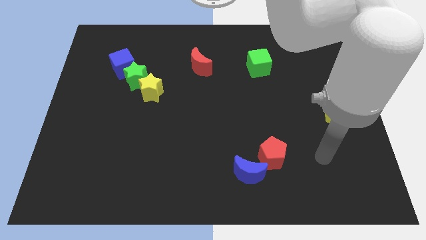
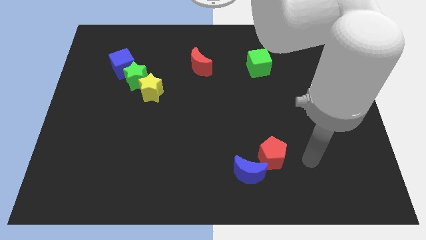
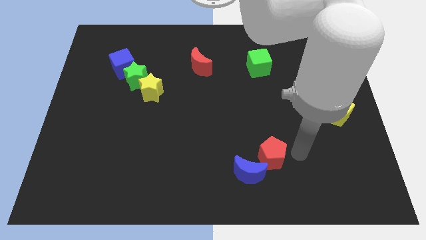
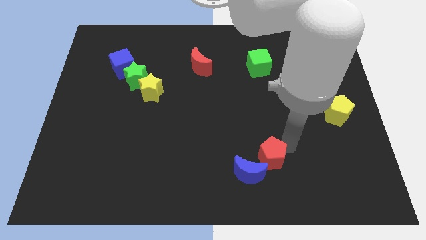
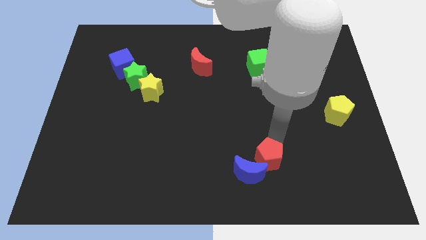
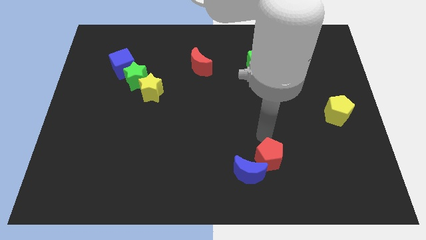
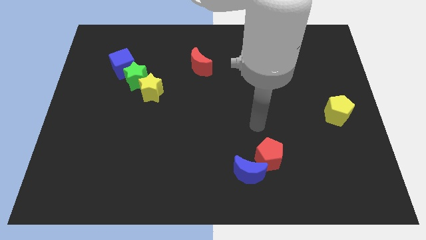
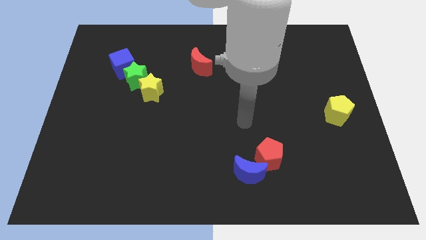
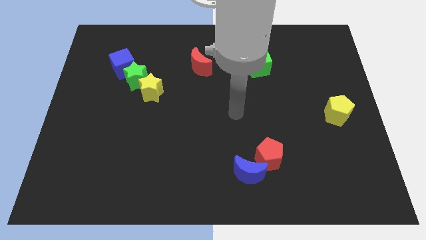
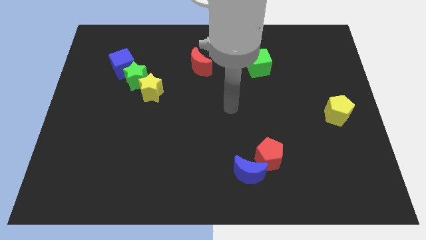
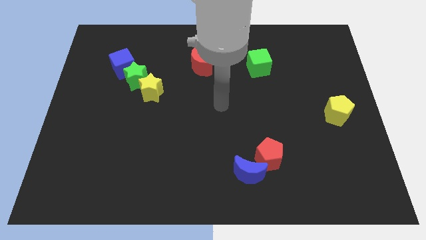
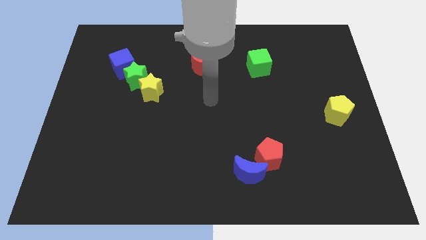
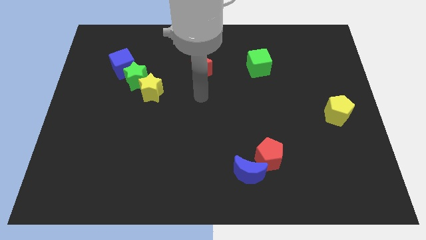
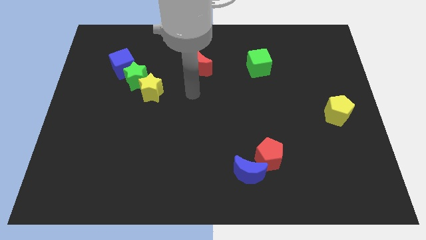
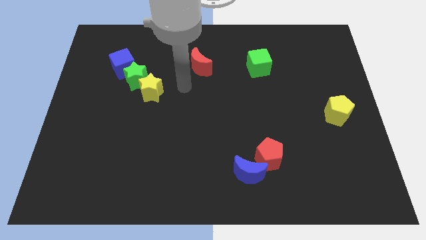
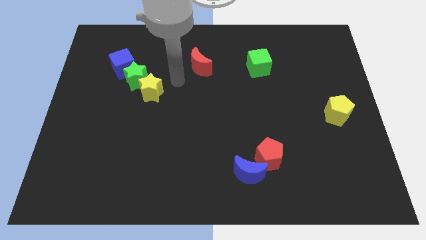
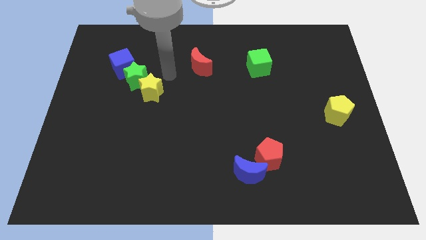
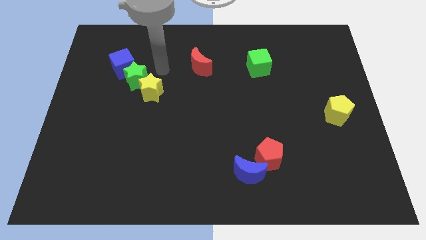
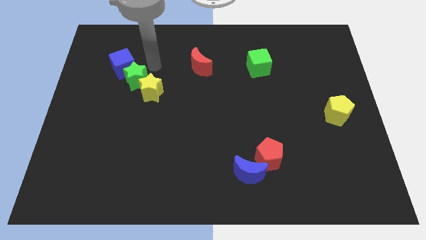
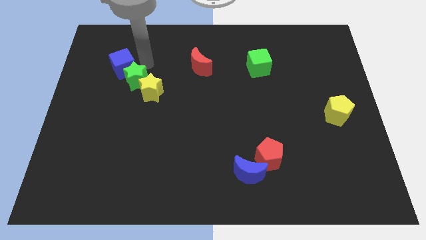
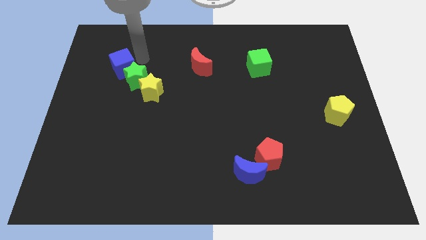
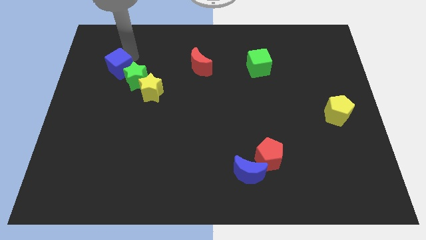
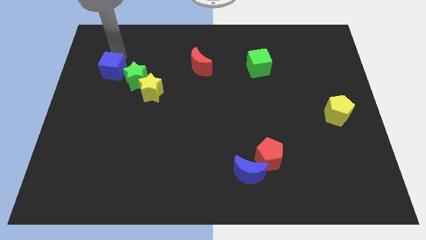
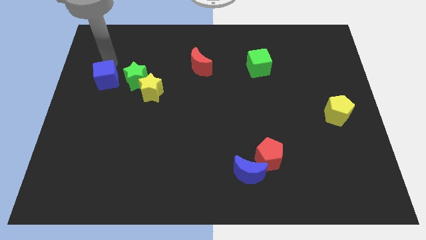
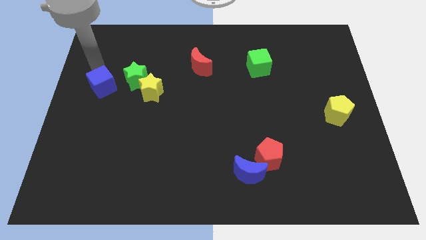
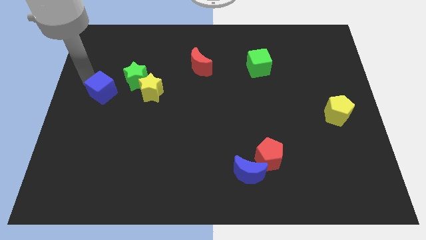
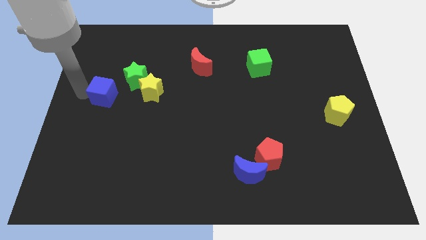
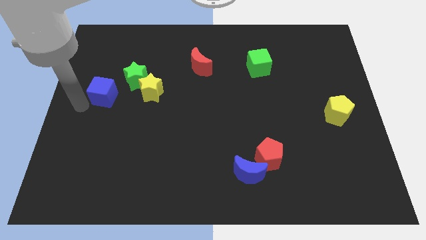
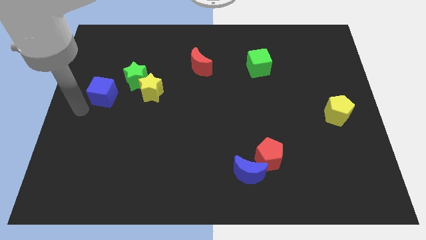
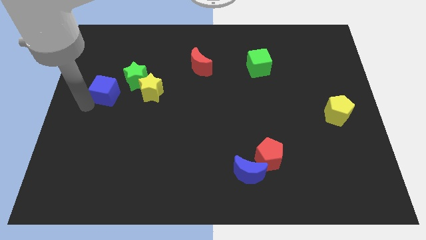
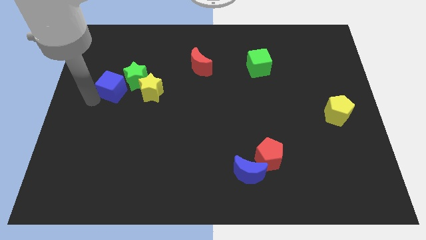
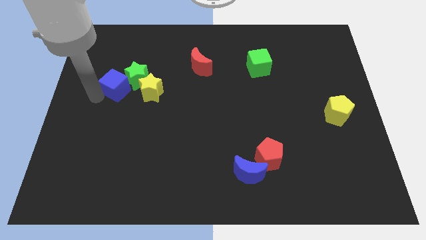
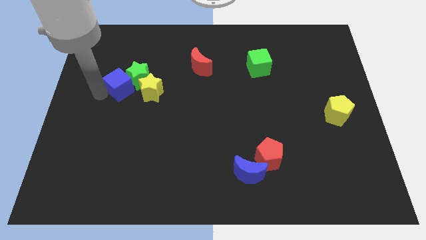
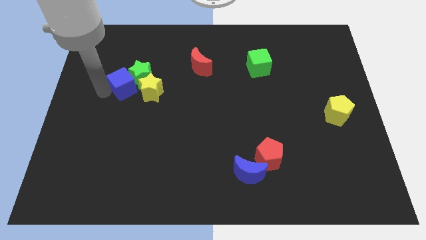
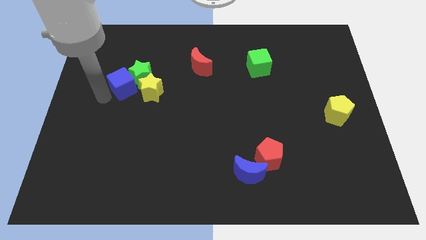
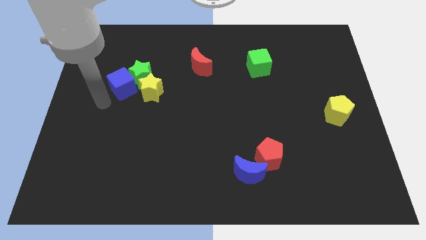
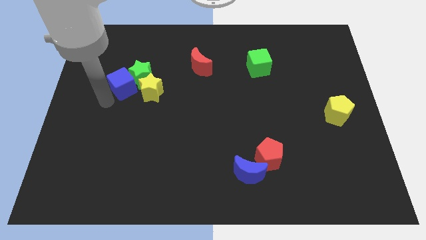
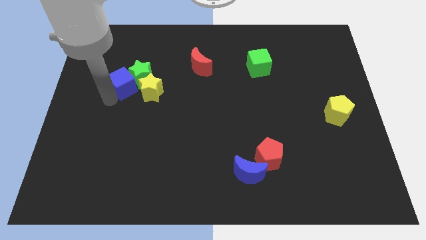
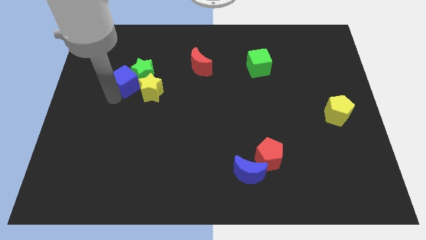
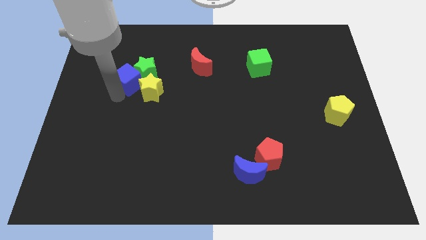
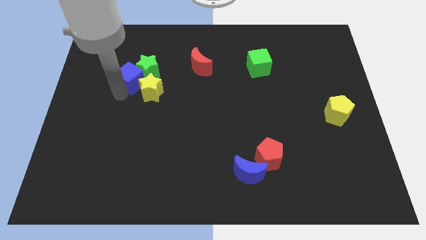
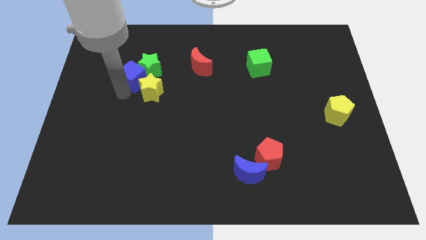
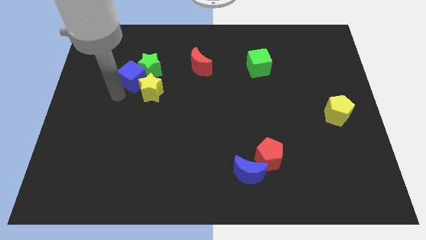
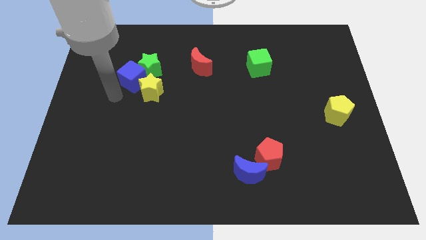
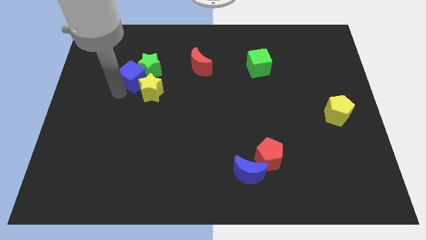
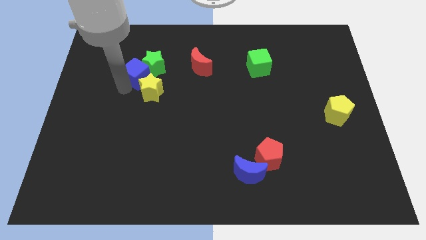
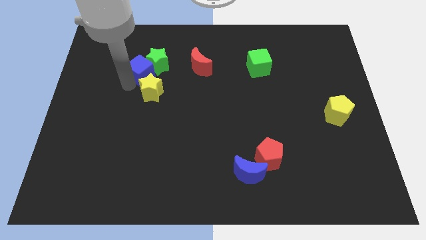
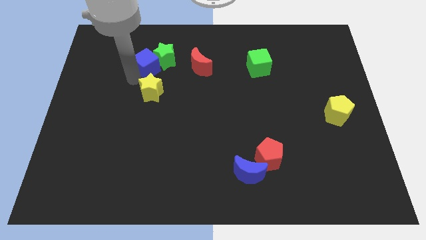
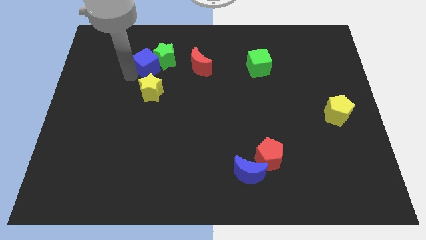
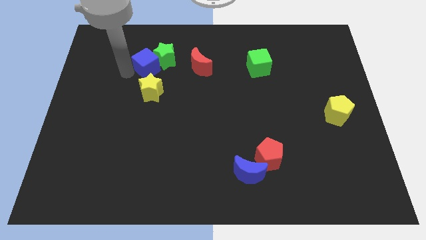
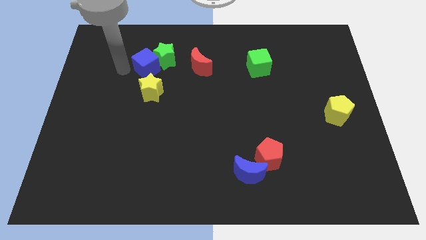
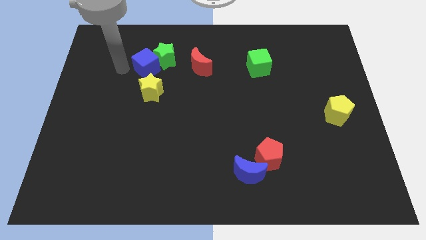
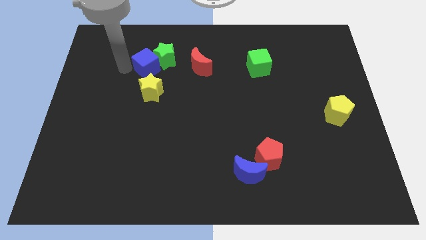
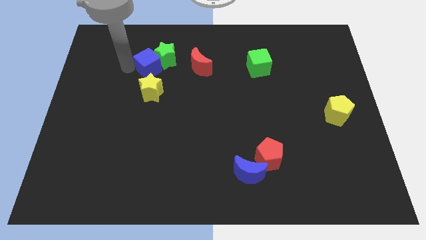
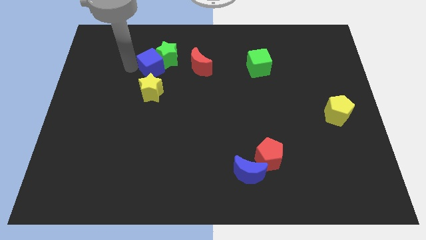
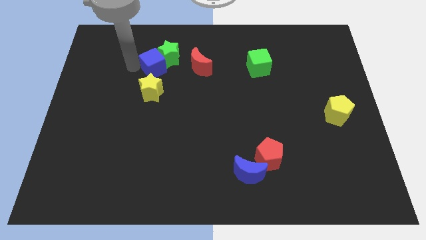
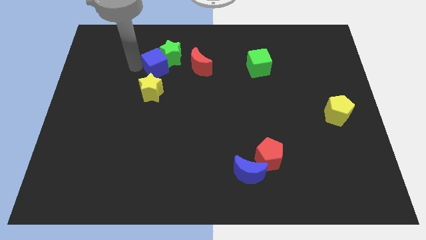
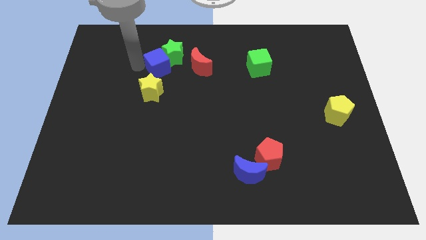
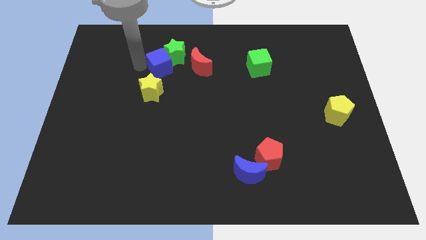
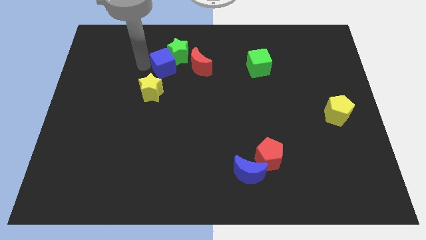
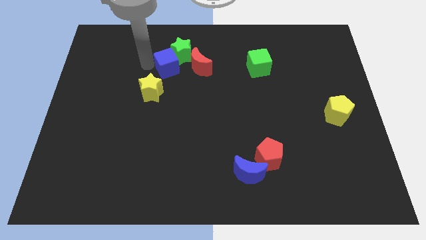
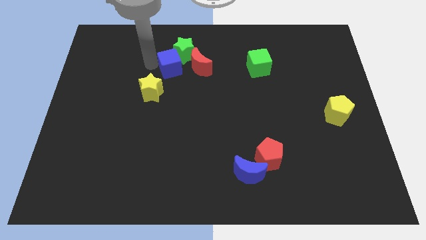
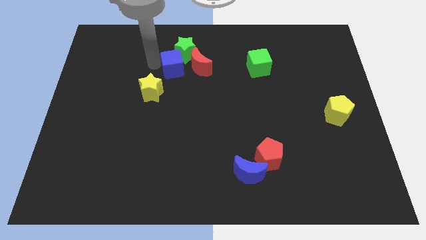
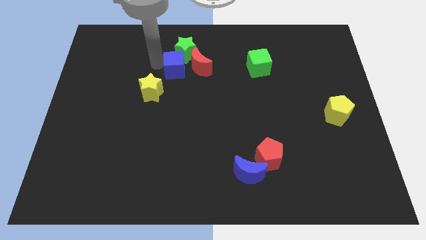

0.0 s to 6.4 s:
push the blue cube to the red moon
